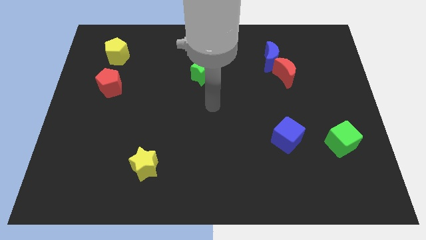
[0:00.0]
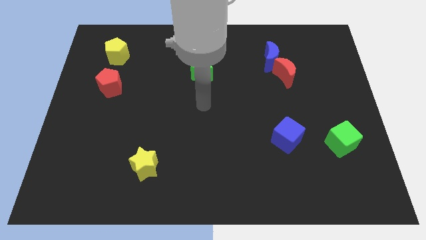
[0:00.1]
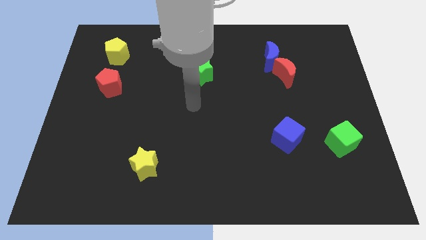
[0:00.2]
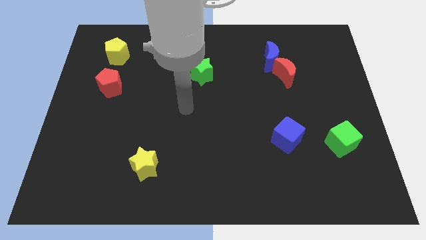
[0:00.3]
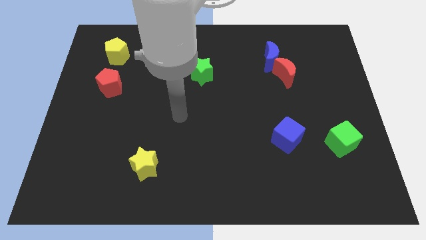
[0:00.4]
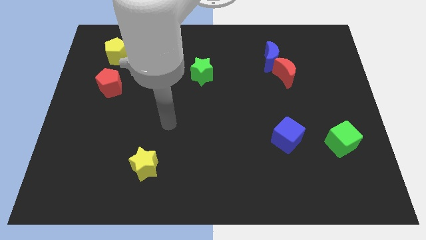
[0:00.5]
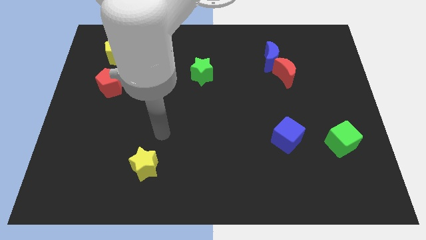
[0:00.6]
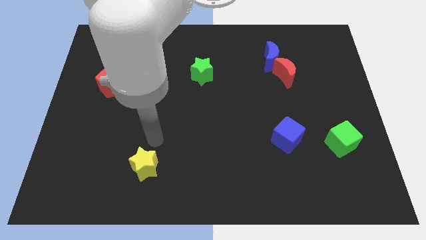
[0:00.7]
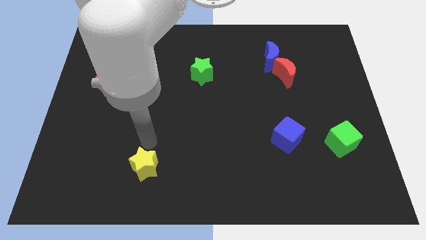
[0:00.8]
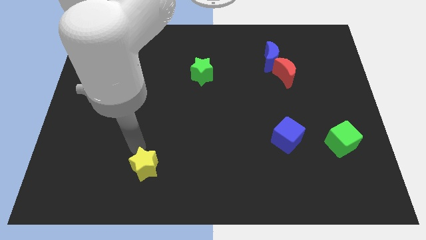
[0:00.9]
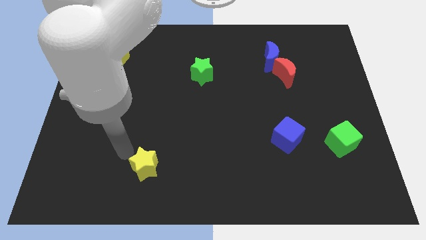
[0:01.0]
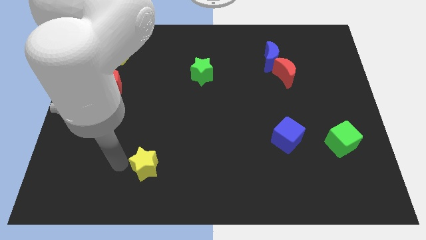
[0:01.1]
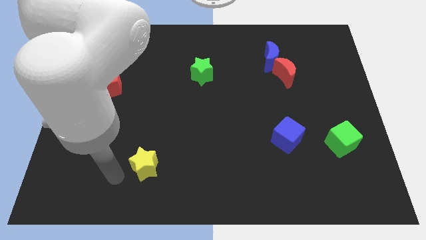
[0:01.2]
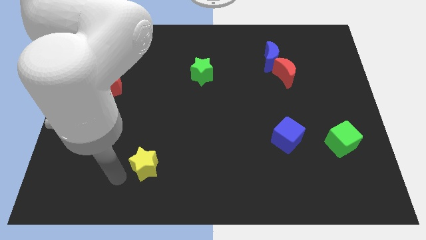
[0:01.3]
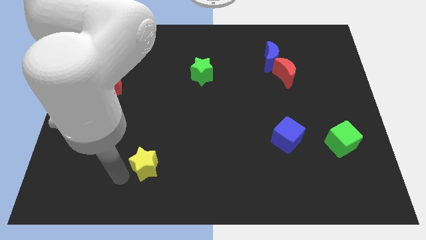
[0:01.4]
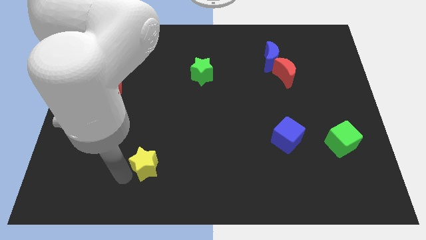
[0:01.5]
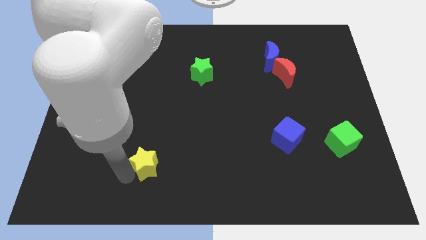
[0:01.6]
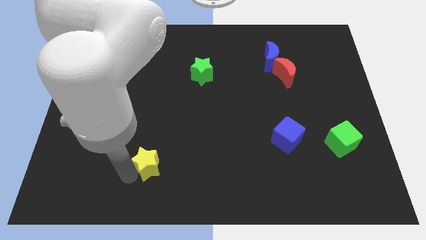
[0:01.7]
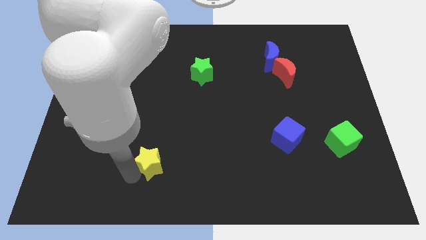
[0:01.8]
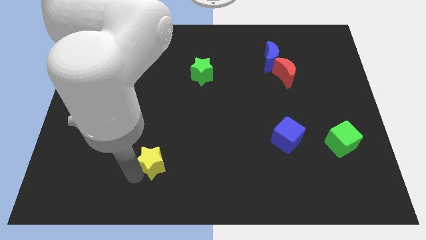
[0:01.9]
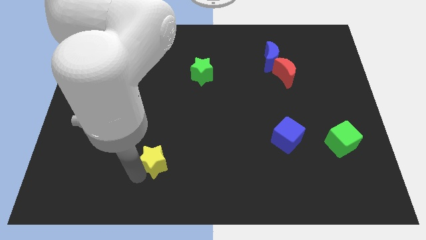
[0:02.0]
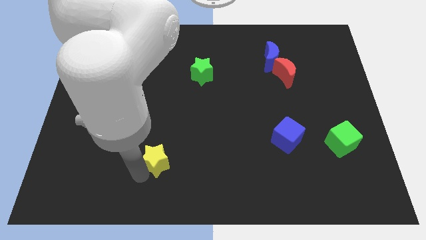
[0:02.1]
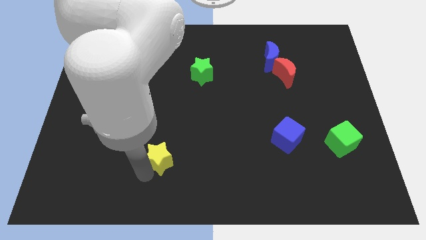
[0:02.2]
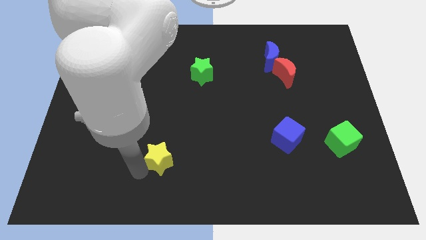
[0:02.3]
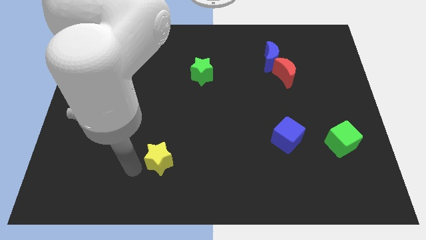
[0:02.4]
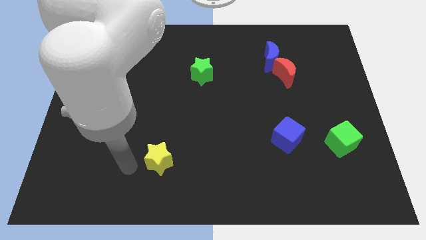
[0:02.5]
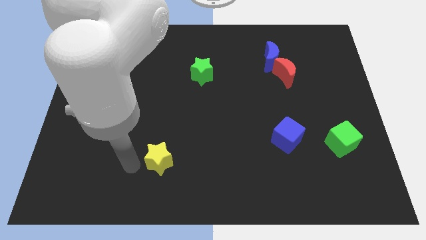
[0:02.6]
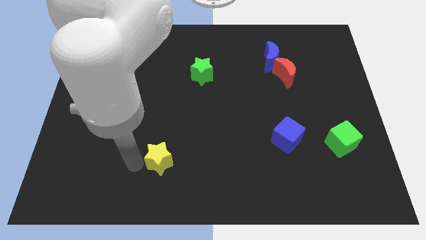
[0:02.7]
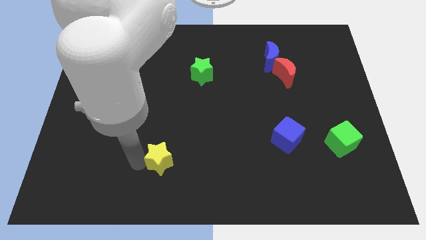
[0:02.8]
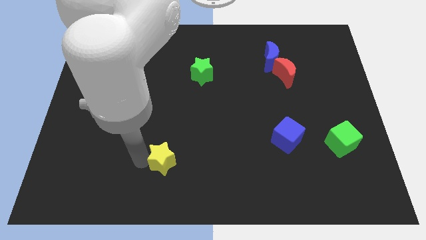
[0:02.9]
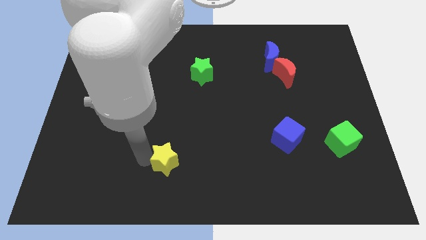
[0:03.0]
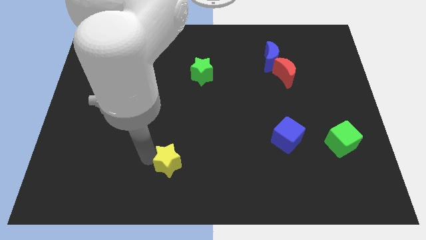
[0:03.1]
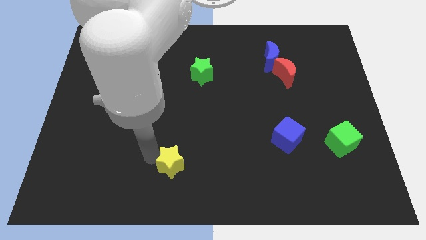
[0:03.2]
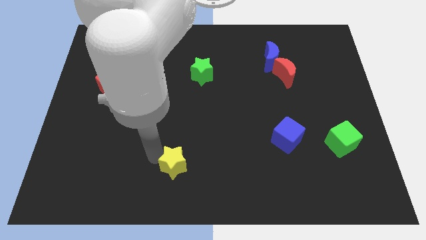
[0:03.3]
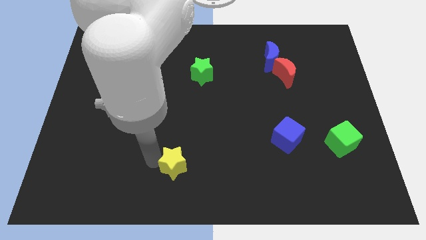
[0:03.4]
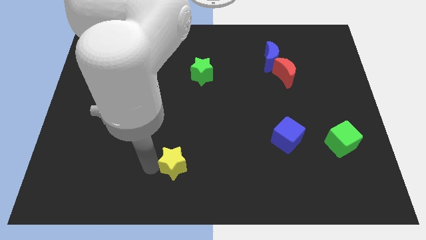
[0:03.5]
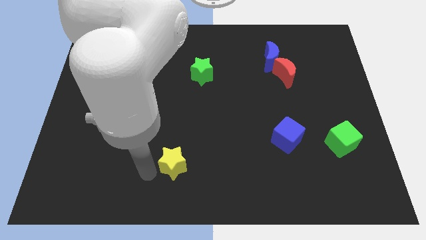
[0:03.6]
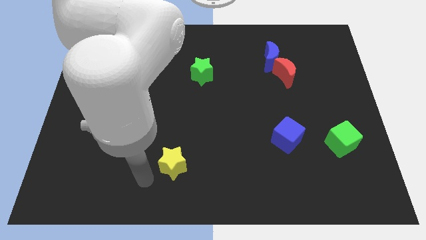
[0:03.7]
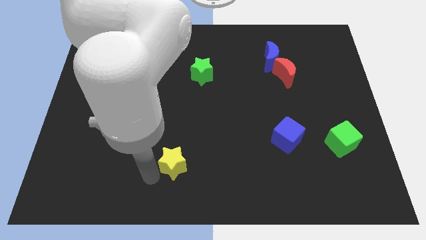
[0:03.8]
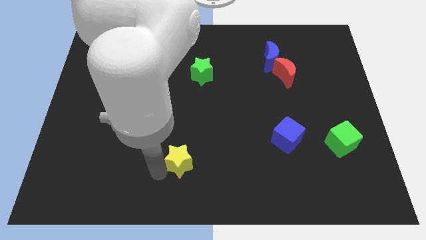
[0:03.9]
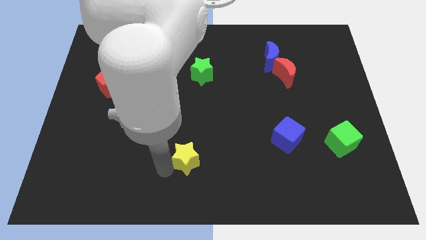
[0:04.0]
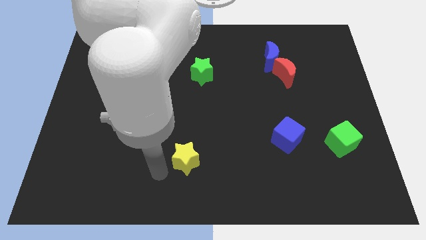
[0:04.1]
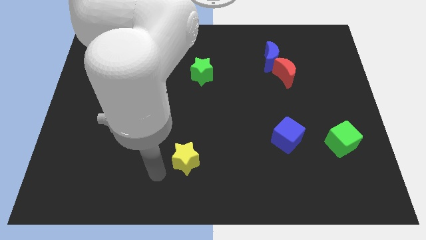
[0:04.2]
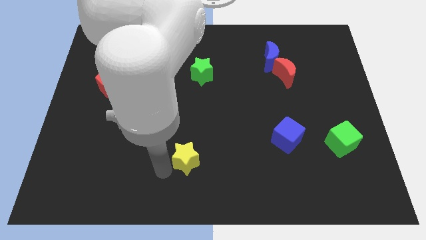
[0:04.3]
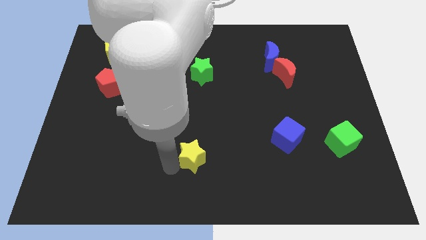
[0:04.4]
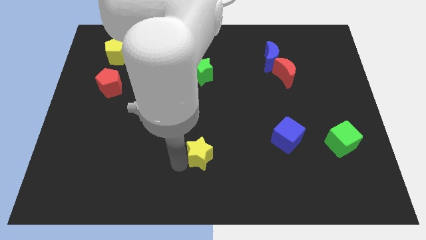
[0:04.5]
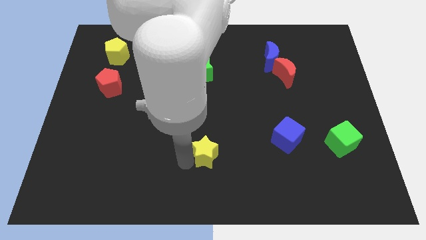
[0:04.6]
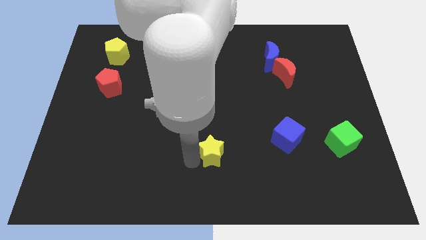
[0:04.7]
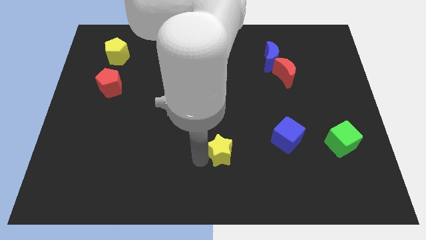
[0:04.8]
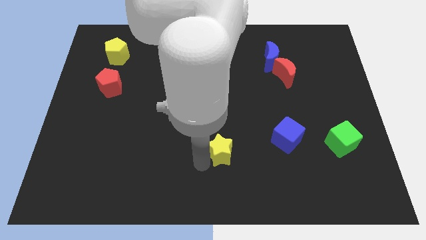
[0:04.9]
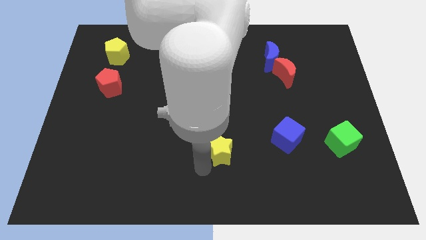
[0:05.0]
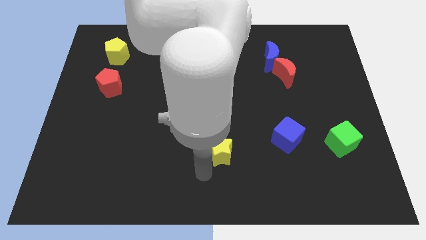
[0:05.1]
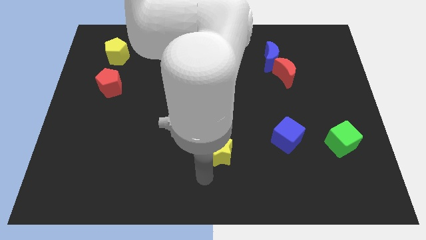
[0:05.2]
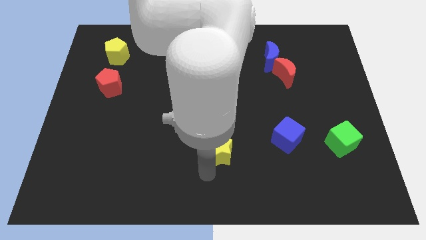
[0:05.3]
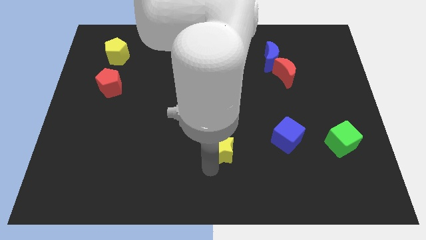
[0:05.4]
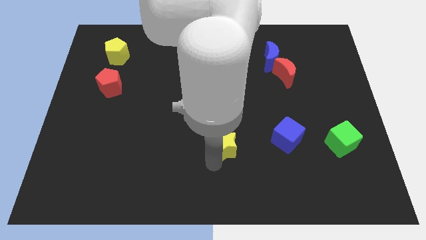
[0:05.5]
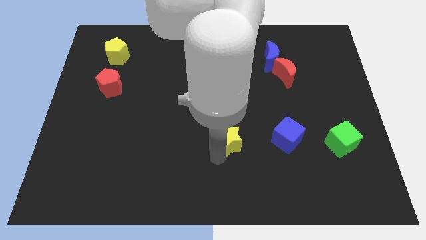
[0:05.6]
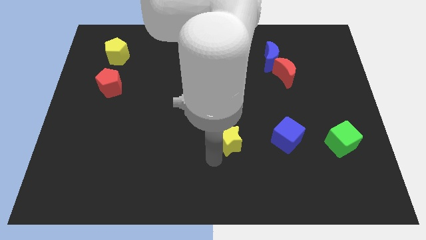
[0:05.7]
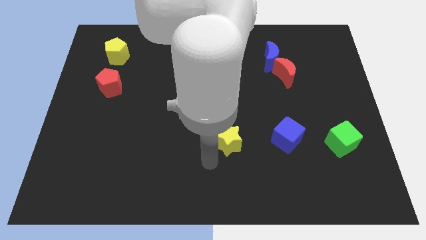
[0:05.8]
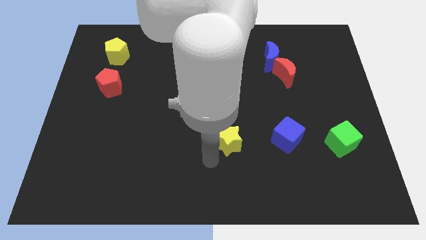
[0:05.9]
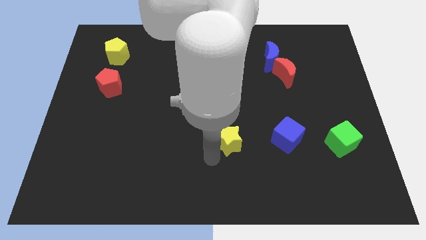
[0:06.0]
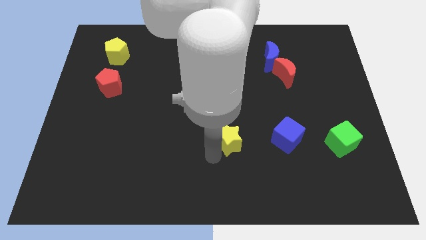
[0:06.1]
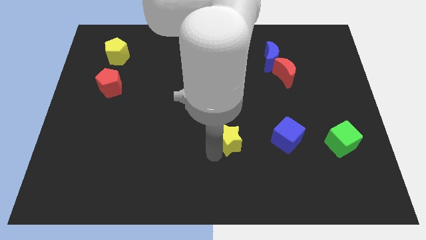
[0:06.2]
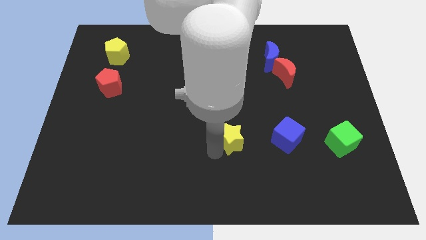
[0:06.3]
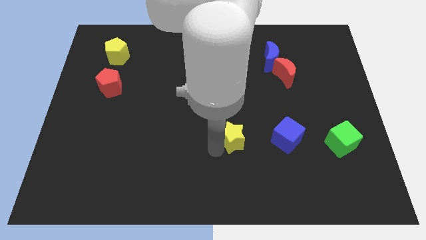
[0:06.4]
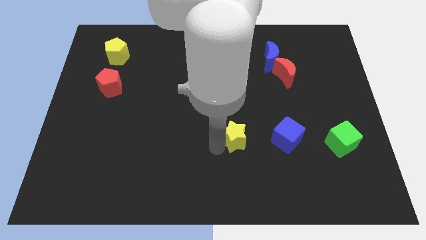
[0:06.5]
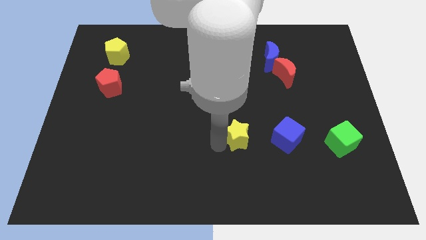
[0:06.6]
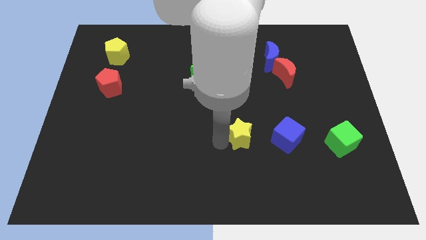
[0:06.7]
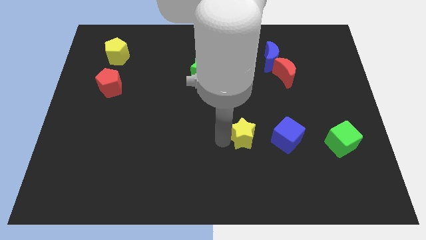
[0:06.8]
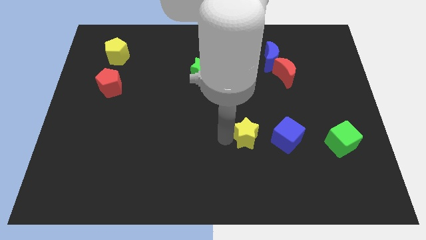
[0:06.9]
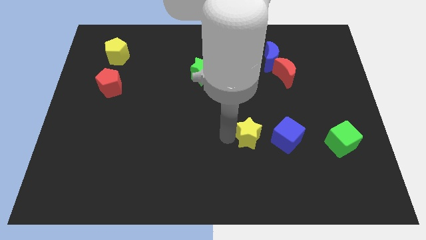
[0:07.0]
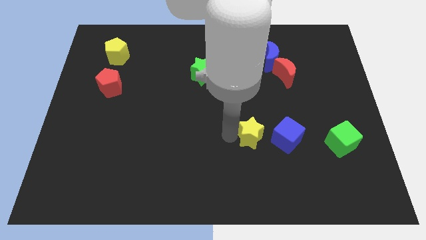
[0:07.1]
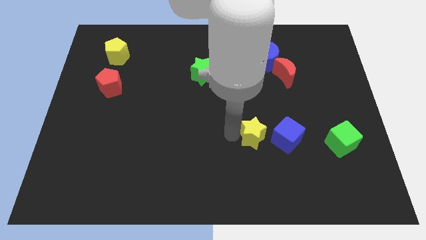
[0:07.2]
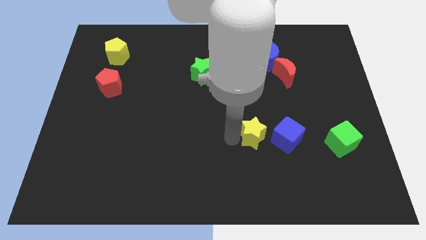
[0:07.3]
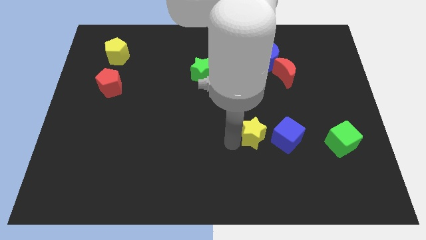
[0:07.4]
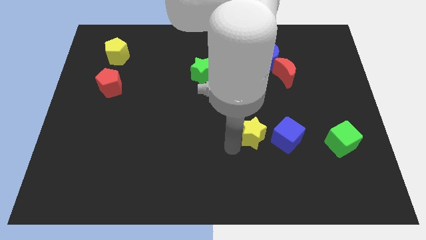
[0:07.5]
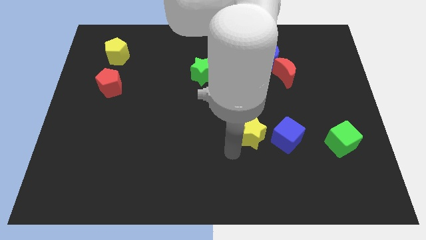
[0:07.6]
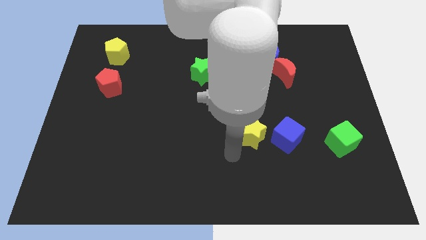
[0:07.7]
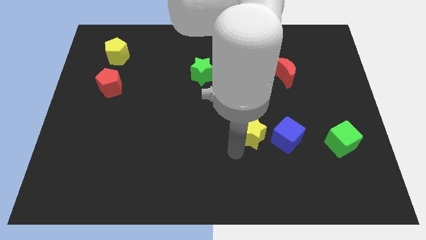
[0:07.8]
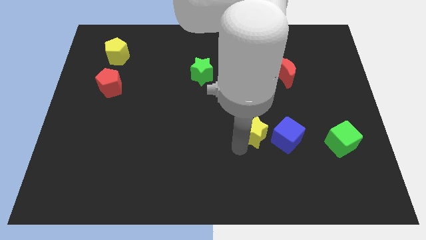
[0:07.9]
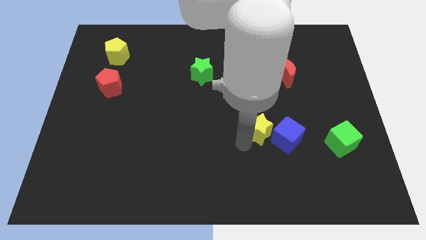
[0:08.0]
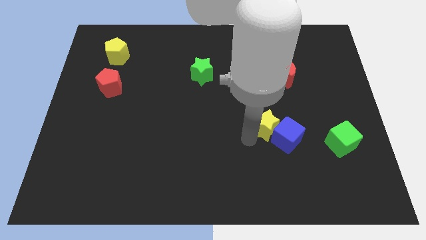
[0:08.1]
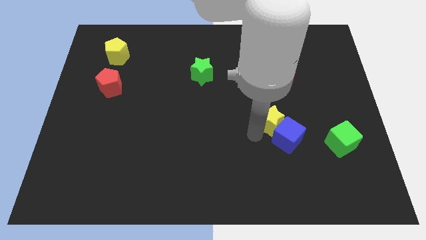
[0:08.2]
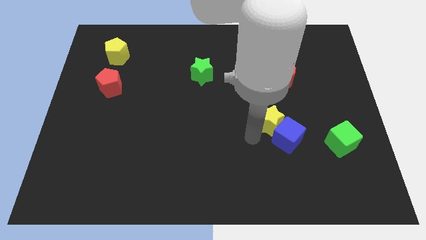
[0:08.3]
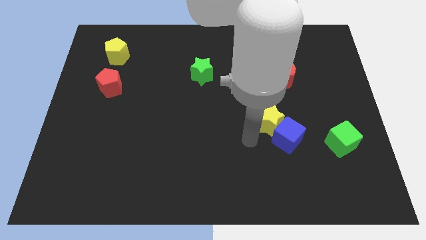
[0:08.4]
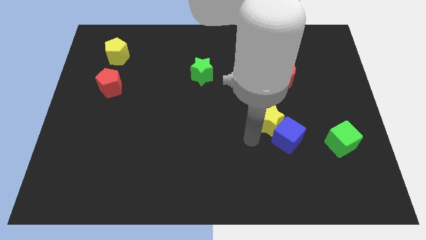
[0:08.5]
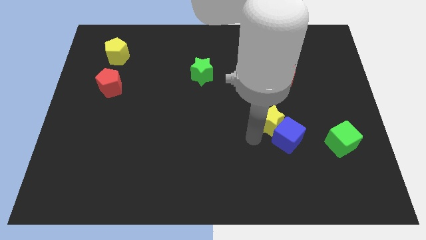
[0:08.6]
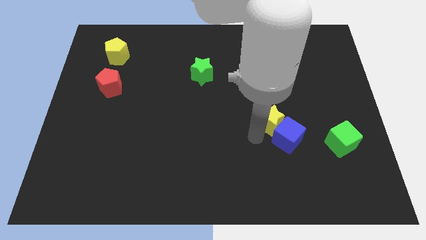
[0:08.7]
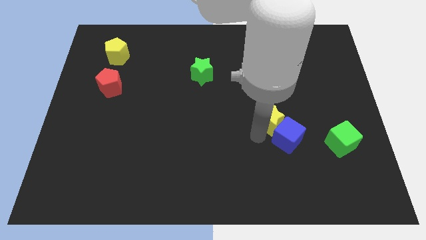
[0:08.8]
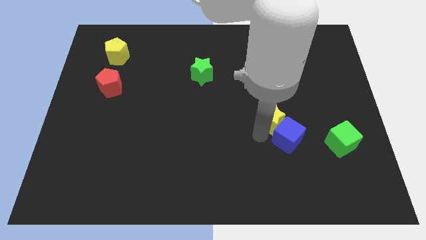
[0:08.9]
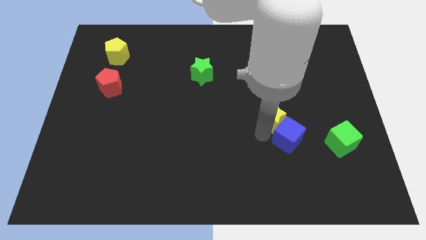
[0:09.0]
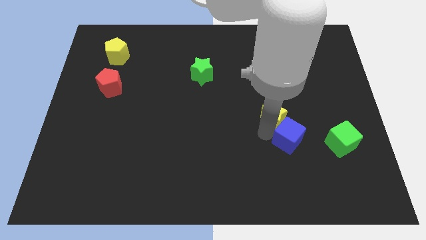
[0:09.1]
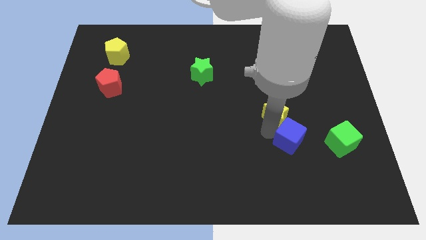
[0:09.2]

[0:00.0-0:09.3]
slide the yellow star to the bottom of the red moon
